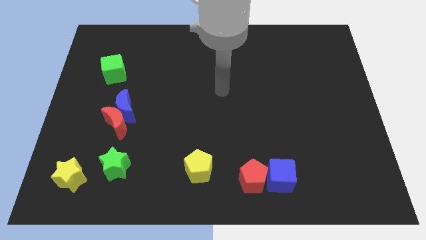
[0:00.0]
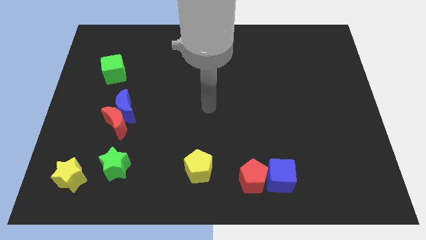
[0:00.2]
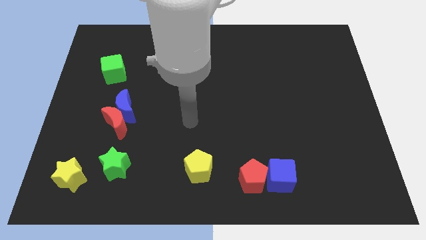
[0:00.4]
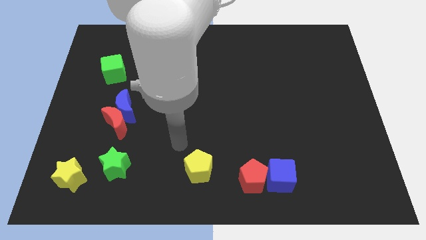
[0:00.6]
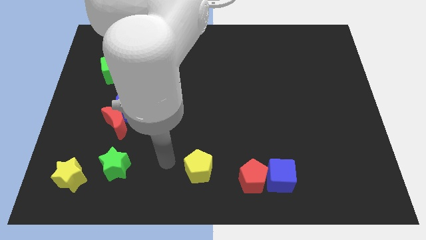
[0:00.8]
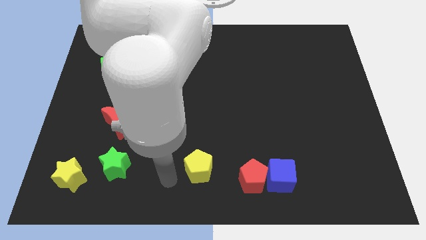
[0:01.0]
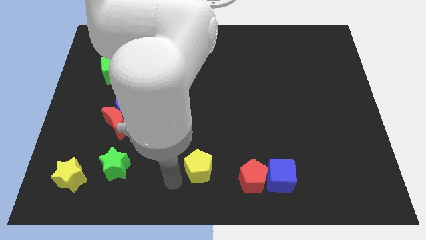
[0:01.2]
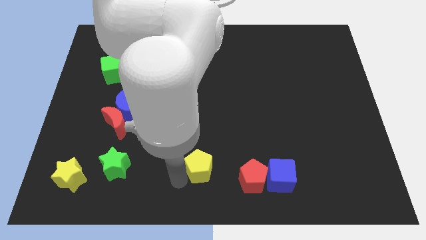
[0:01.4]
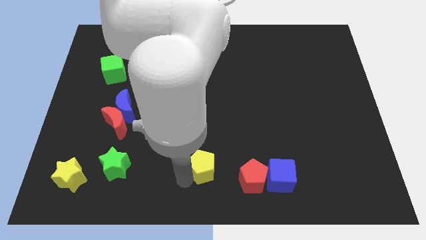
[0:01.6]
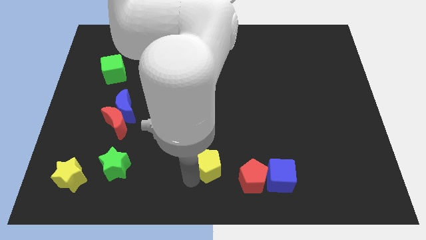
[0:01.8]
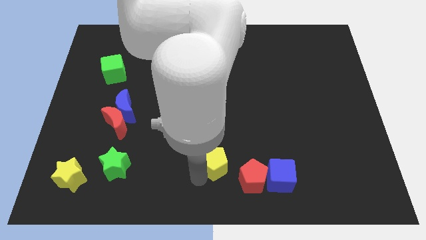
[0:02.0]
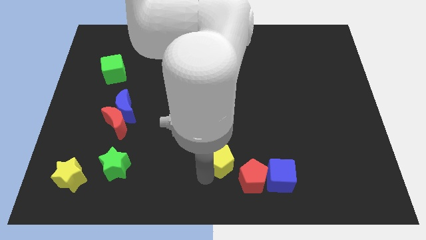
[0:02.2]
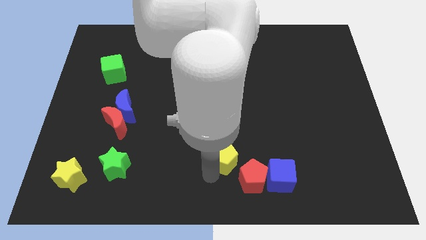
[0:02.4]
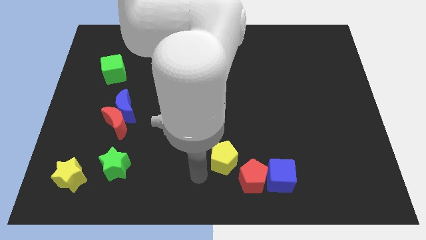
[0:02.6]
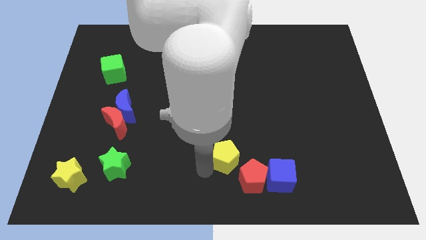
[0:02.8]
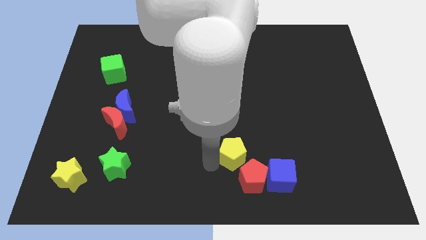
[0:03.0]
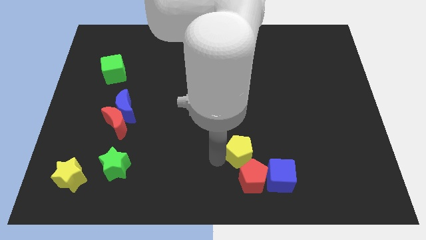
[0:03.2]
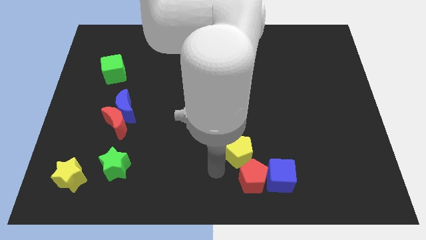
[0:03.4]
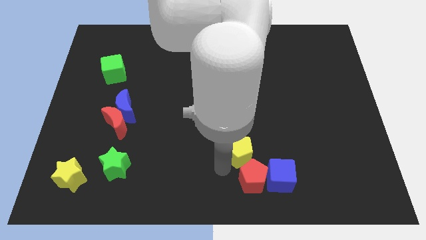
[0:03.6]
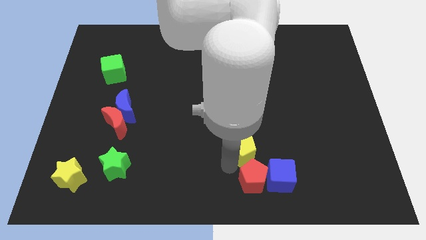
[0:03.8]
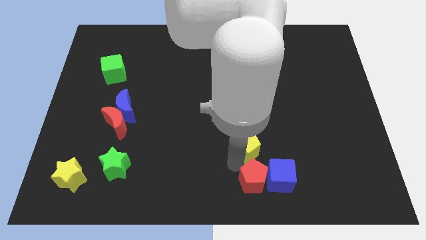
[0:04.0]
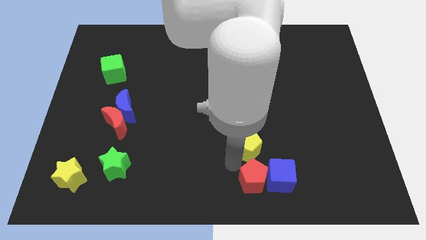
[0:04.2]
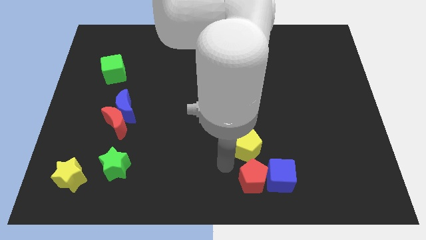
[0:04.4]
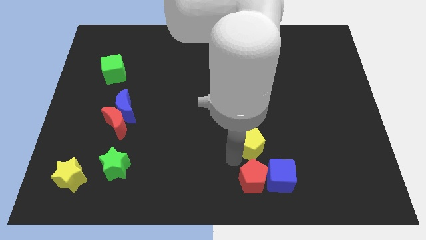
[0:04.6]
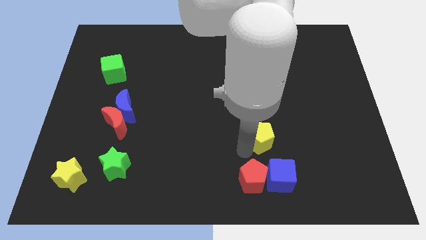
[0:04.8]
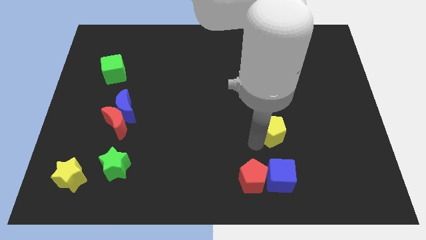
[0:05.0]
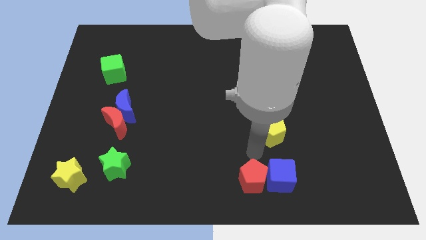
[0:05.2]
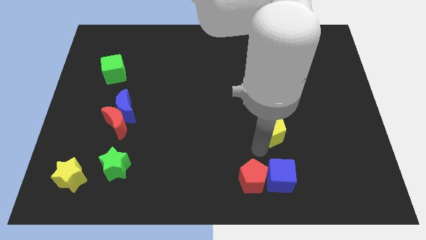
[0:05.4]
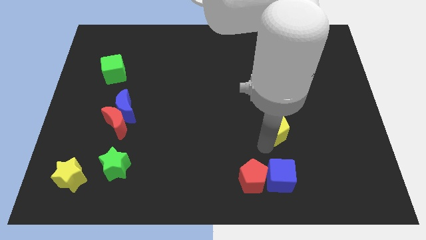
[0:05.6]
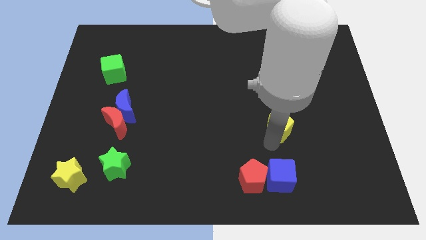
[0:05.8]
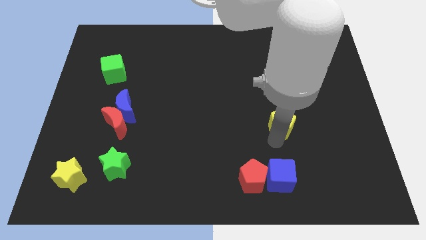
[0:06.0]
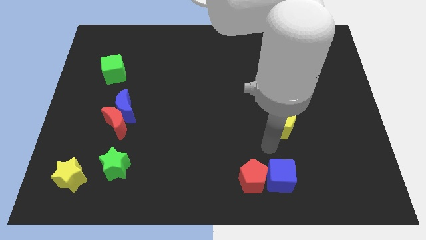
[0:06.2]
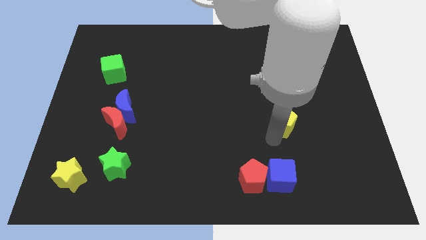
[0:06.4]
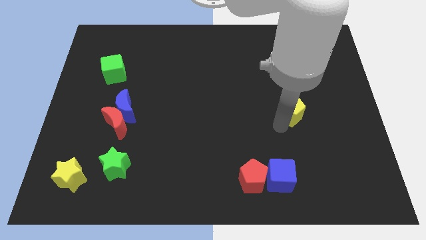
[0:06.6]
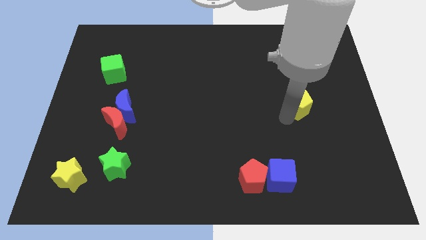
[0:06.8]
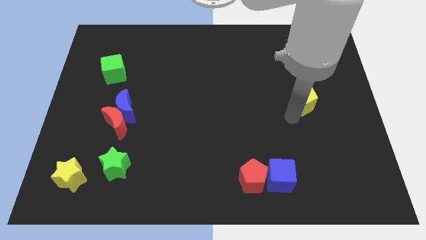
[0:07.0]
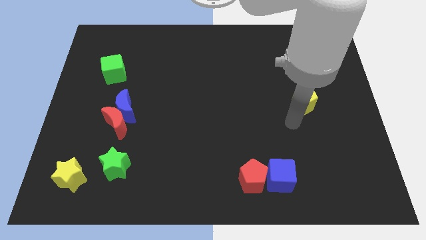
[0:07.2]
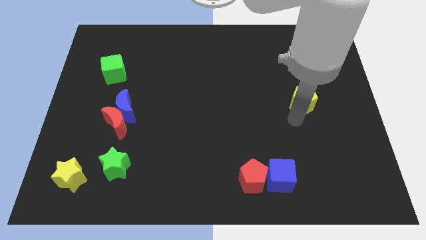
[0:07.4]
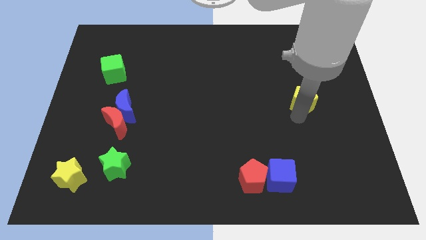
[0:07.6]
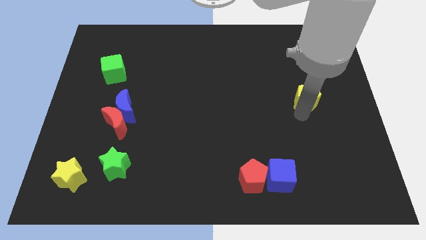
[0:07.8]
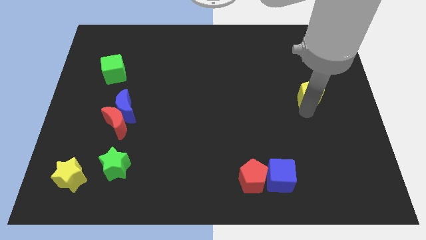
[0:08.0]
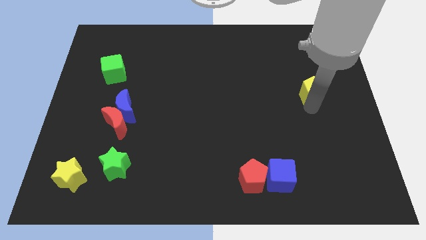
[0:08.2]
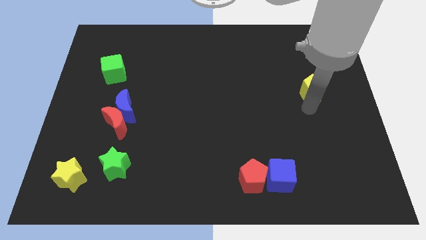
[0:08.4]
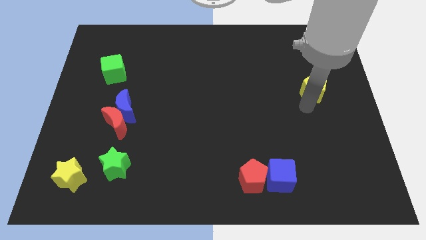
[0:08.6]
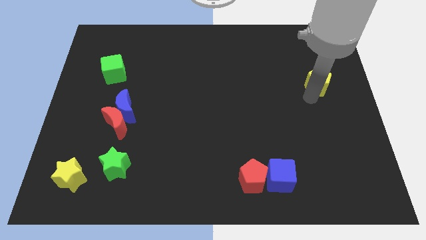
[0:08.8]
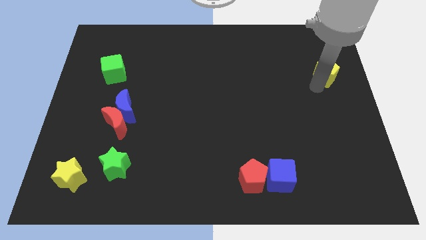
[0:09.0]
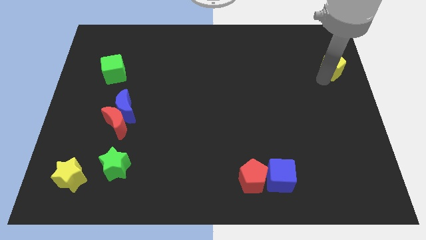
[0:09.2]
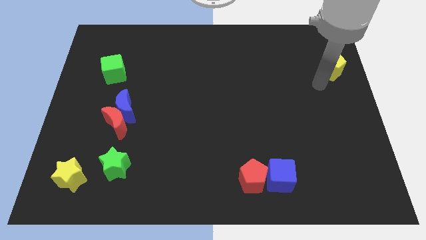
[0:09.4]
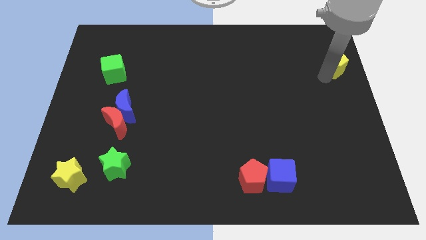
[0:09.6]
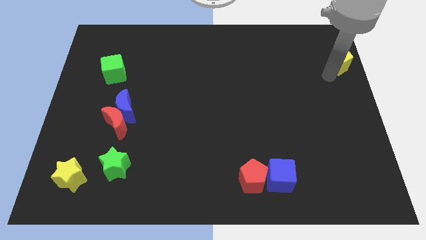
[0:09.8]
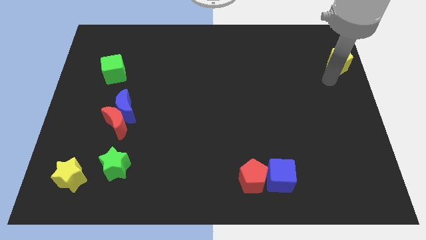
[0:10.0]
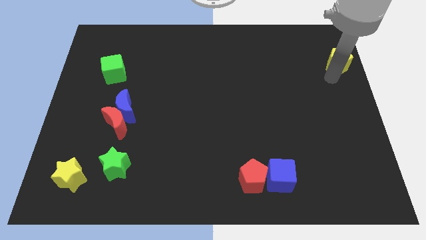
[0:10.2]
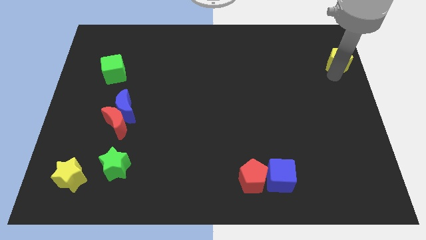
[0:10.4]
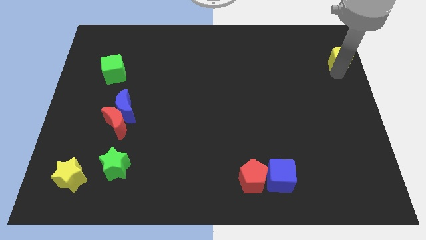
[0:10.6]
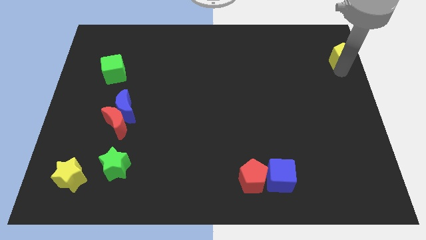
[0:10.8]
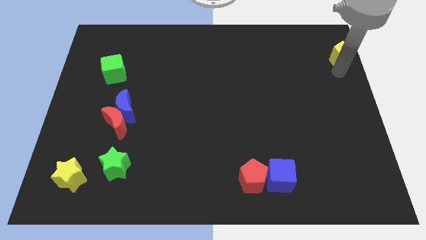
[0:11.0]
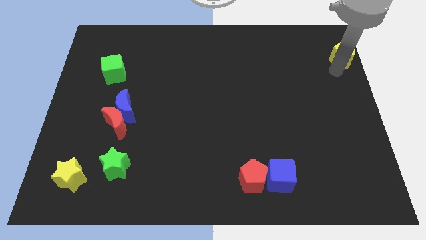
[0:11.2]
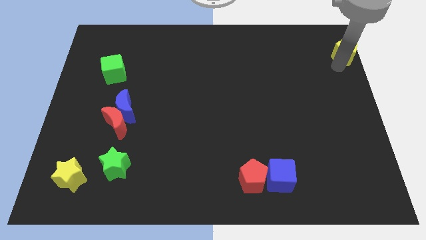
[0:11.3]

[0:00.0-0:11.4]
put the yellow pentagon to the top right
